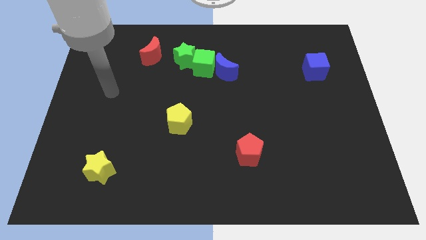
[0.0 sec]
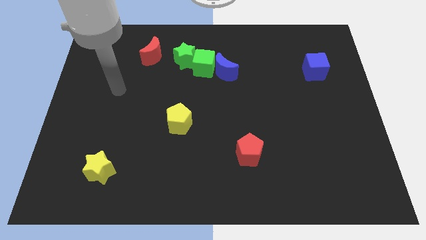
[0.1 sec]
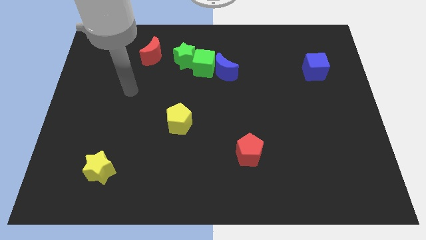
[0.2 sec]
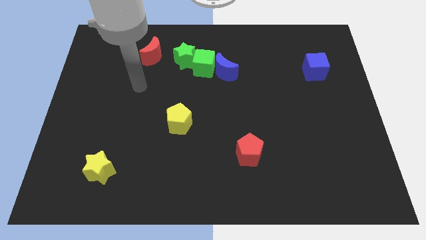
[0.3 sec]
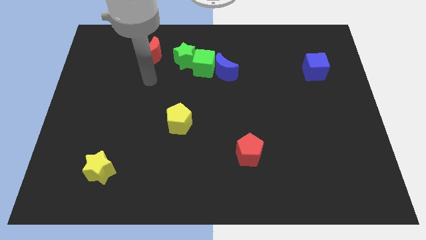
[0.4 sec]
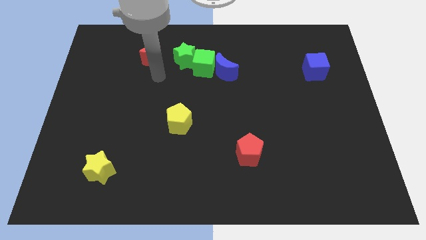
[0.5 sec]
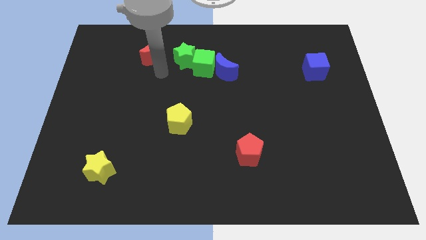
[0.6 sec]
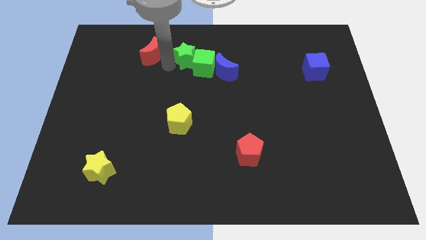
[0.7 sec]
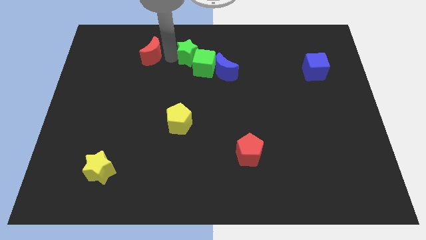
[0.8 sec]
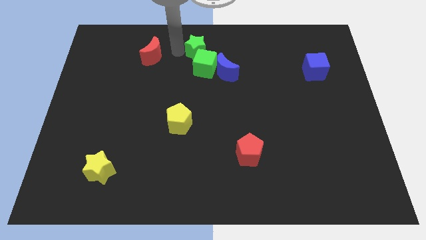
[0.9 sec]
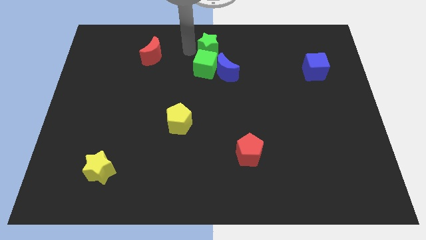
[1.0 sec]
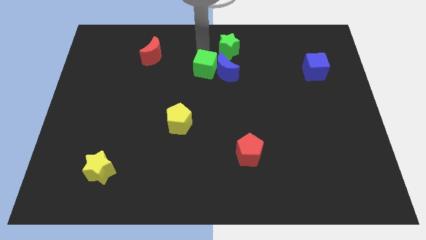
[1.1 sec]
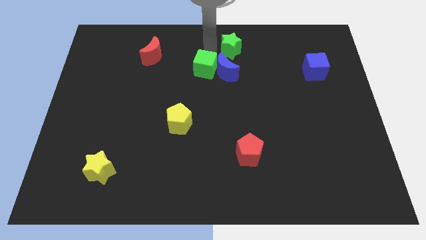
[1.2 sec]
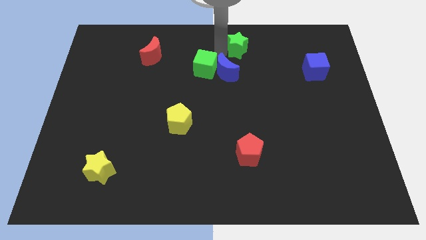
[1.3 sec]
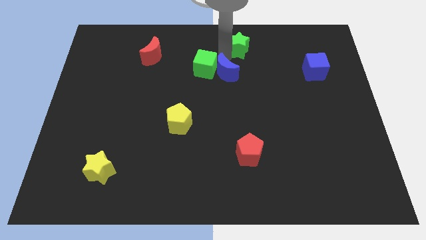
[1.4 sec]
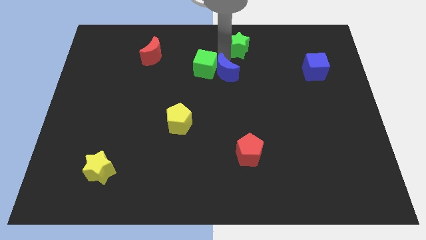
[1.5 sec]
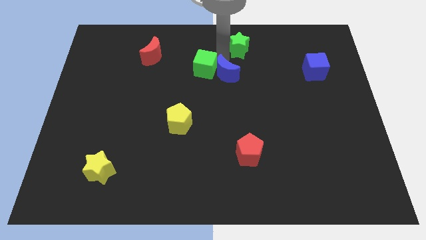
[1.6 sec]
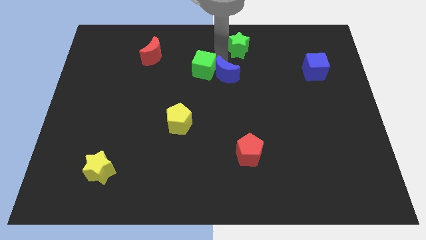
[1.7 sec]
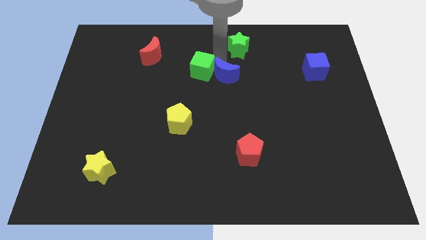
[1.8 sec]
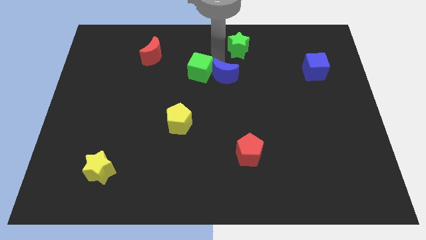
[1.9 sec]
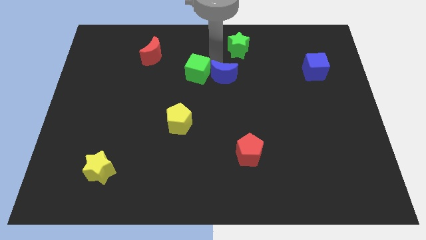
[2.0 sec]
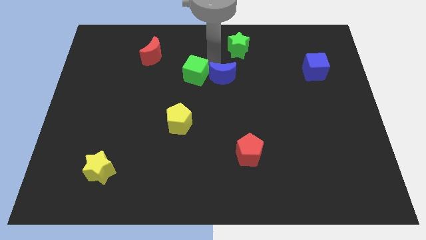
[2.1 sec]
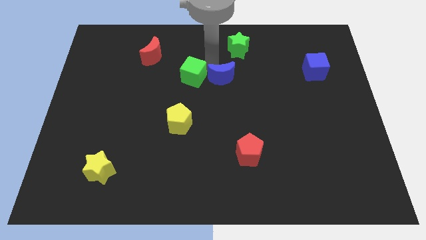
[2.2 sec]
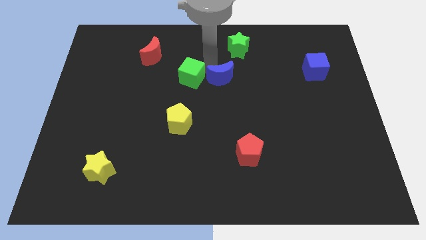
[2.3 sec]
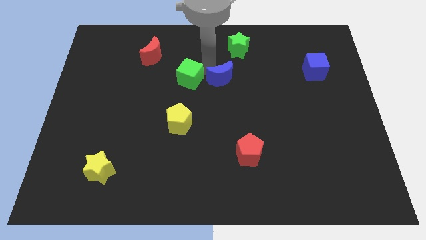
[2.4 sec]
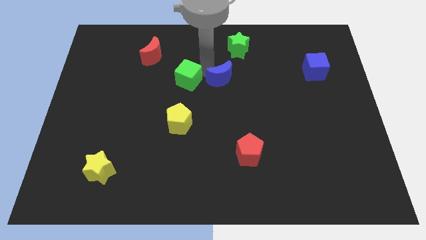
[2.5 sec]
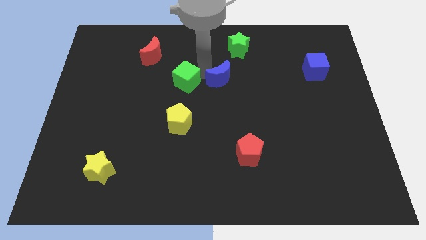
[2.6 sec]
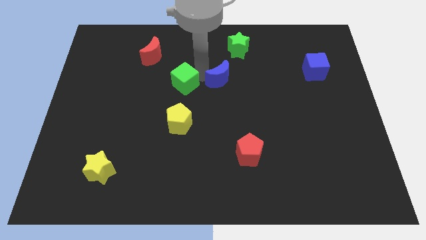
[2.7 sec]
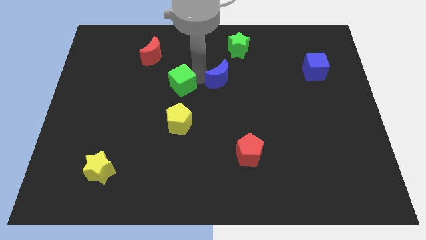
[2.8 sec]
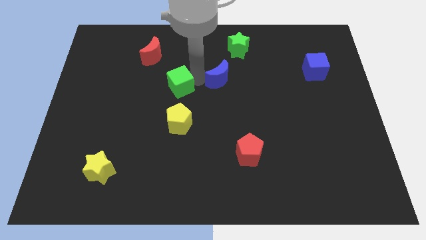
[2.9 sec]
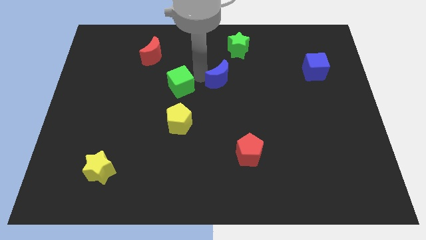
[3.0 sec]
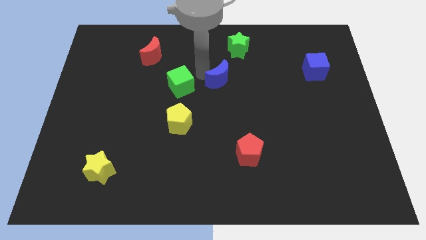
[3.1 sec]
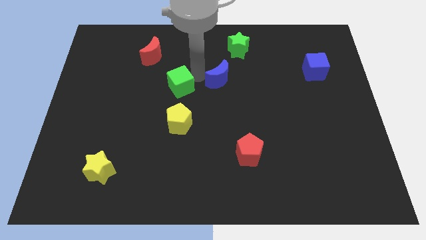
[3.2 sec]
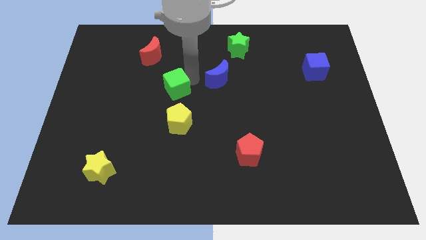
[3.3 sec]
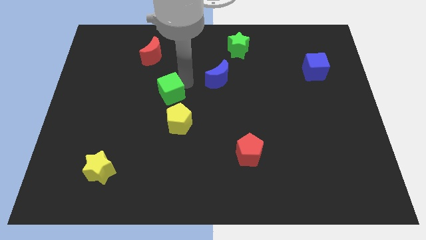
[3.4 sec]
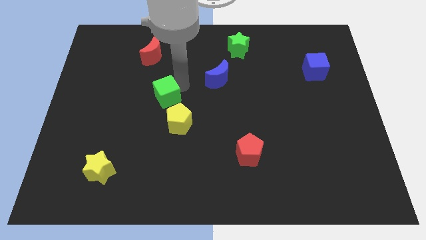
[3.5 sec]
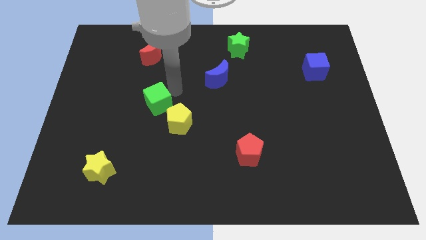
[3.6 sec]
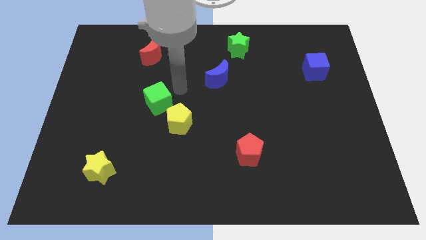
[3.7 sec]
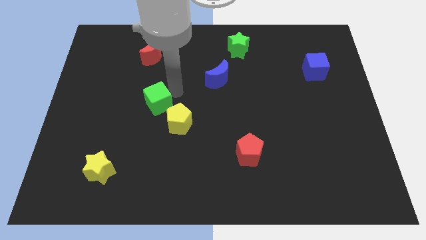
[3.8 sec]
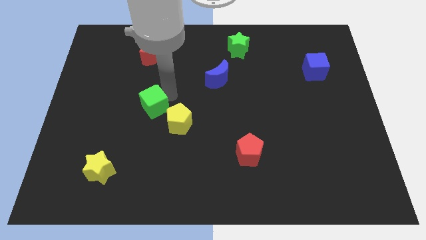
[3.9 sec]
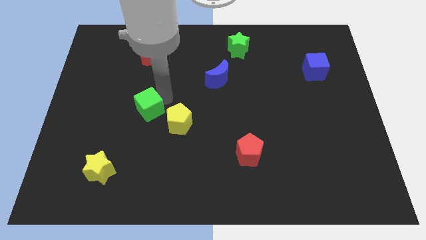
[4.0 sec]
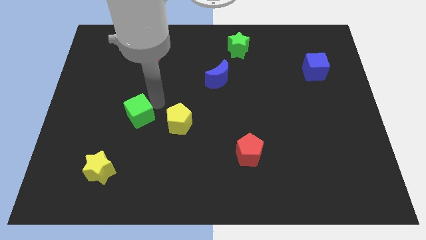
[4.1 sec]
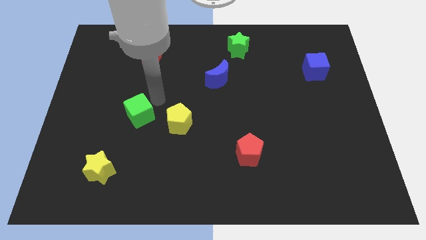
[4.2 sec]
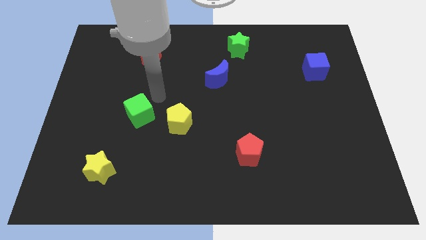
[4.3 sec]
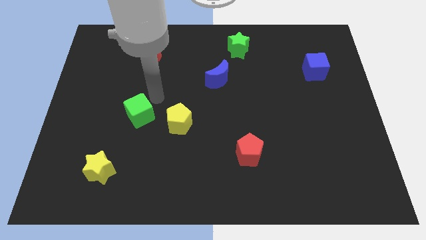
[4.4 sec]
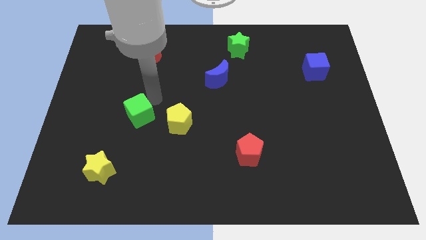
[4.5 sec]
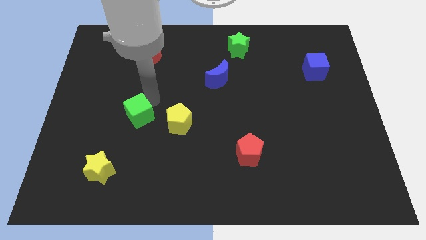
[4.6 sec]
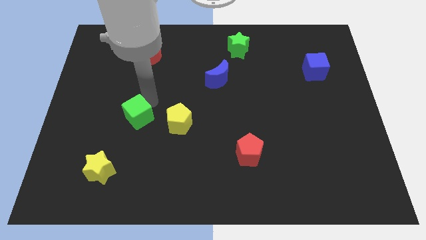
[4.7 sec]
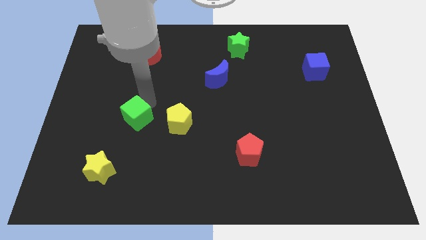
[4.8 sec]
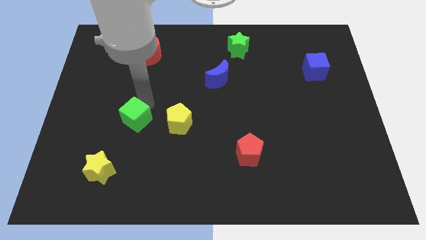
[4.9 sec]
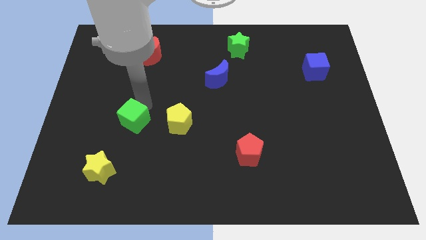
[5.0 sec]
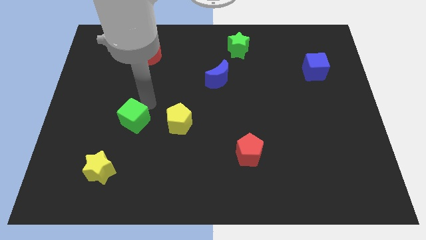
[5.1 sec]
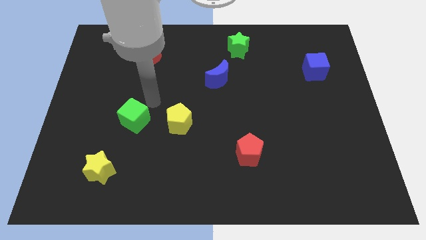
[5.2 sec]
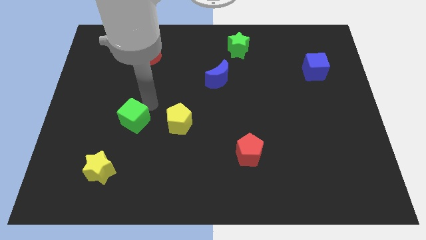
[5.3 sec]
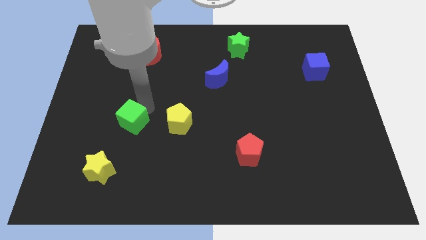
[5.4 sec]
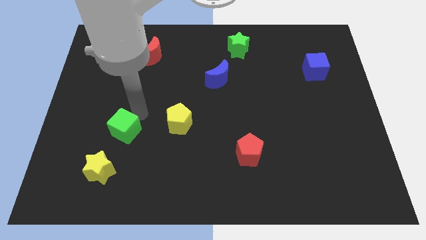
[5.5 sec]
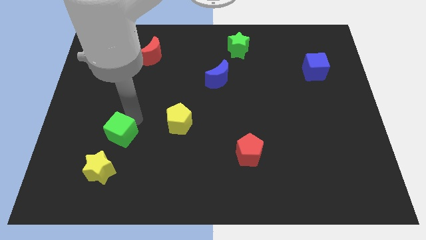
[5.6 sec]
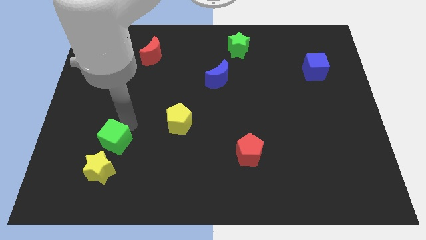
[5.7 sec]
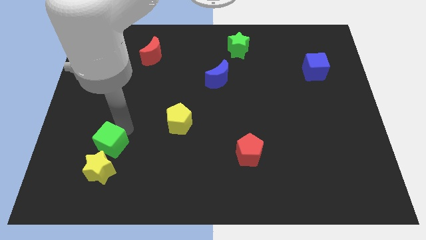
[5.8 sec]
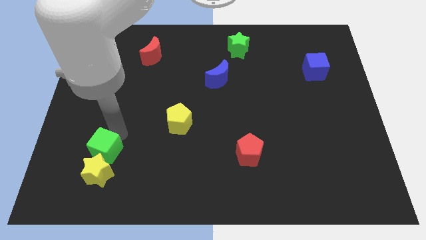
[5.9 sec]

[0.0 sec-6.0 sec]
slide the green cube close to the yellow star

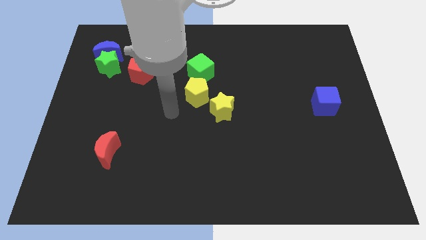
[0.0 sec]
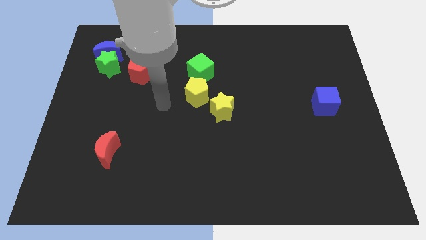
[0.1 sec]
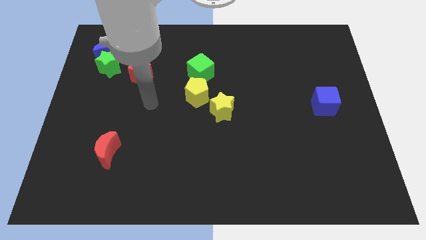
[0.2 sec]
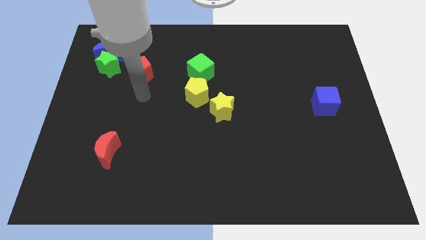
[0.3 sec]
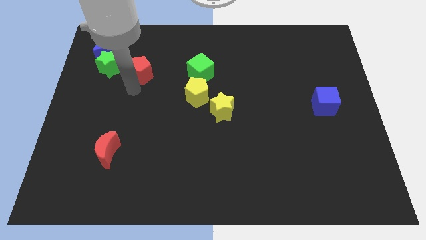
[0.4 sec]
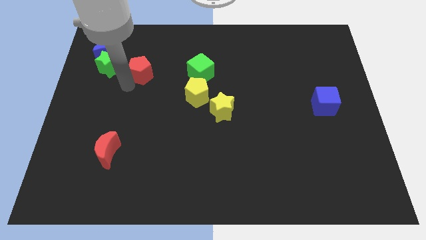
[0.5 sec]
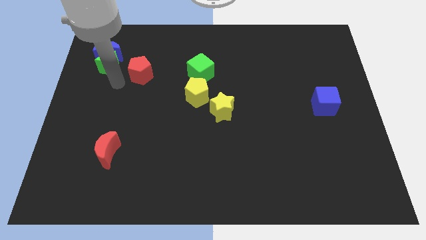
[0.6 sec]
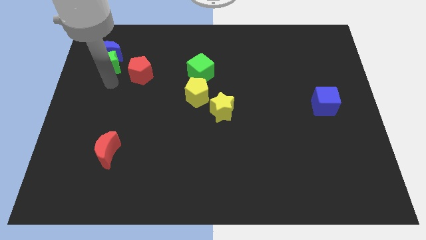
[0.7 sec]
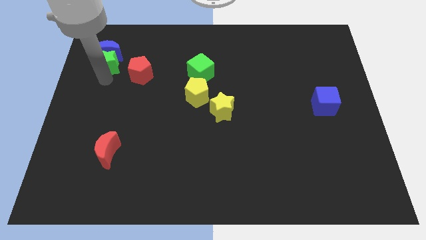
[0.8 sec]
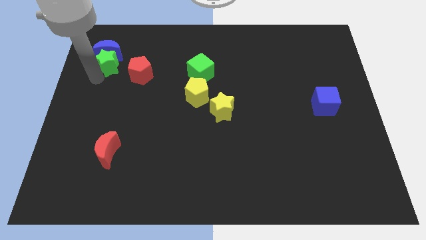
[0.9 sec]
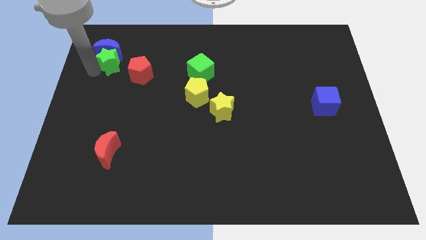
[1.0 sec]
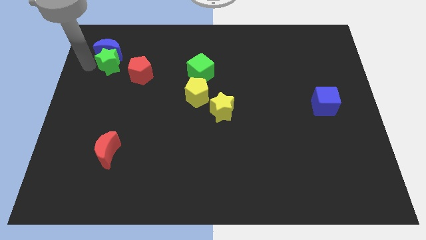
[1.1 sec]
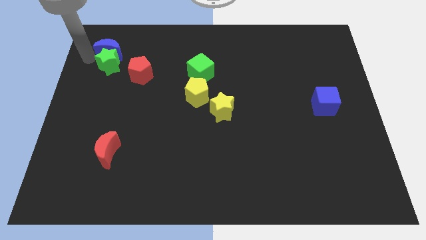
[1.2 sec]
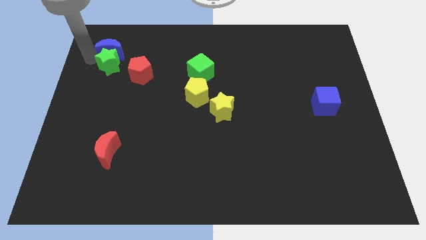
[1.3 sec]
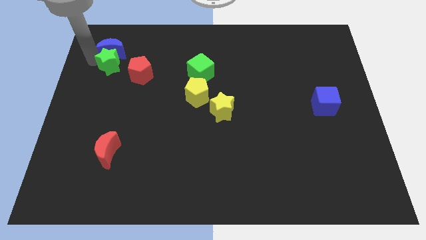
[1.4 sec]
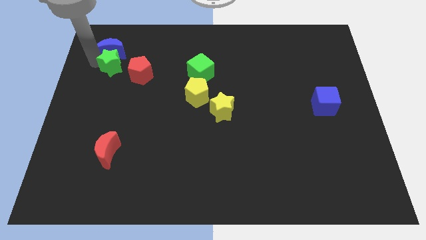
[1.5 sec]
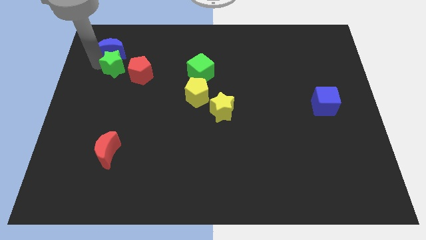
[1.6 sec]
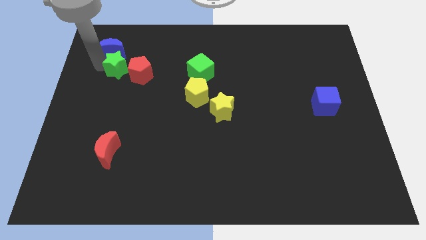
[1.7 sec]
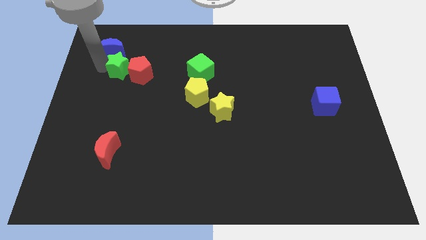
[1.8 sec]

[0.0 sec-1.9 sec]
move the green star towards the red pentagon
